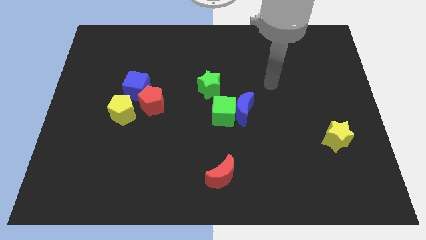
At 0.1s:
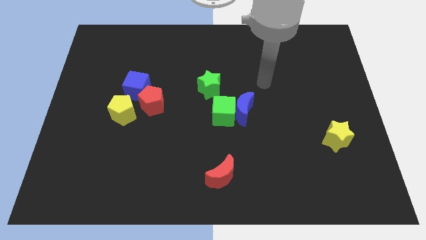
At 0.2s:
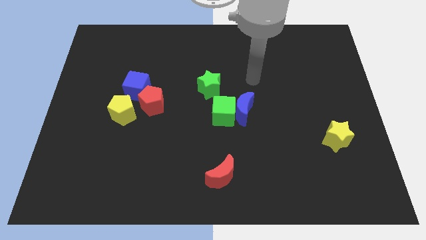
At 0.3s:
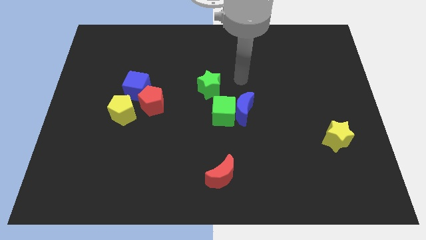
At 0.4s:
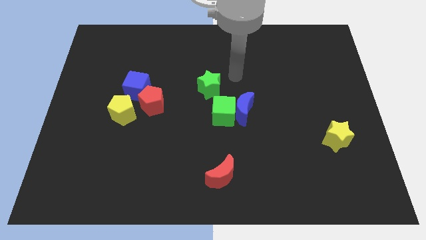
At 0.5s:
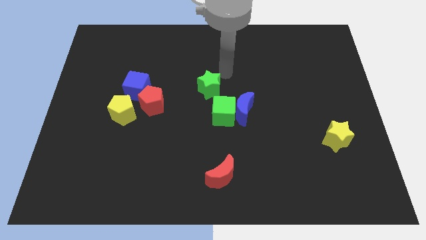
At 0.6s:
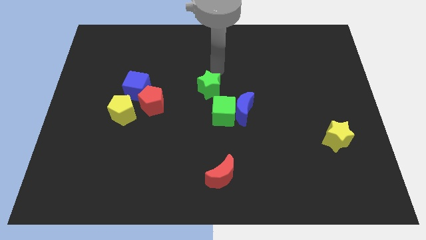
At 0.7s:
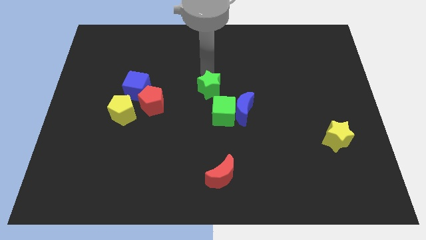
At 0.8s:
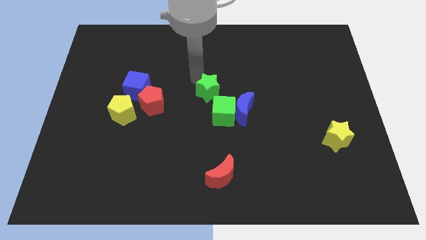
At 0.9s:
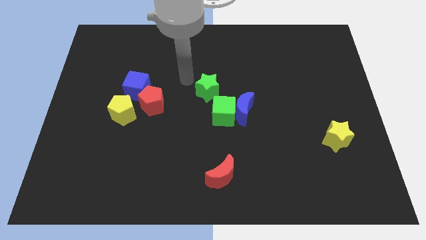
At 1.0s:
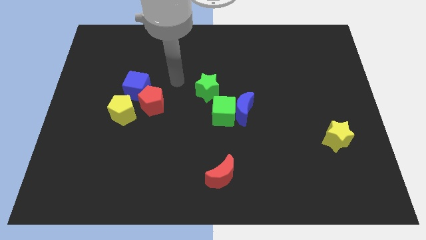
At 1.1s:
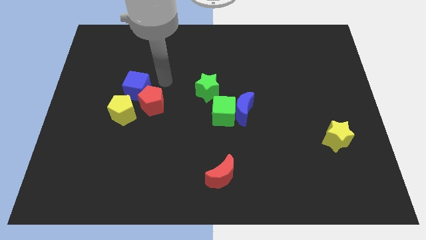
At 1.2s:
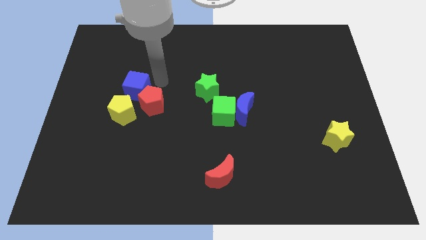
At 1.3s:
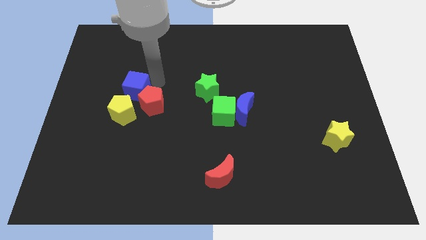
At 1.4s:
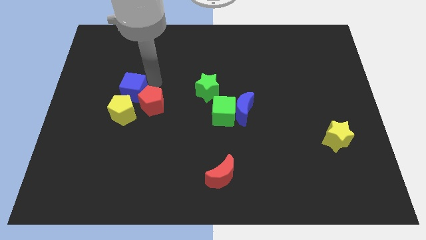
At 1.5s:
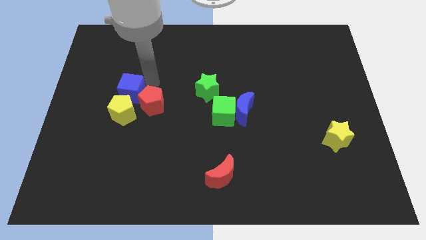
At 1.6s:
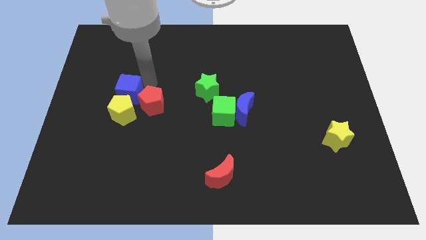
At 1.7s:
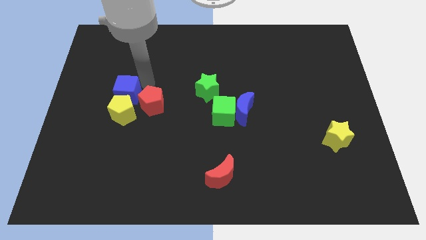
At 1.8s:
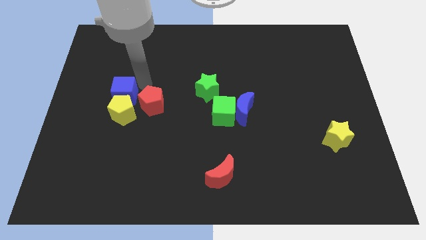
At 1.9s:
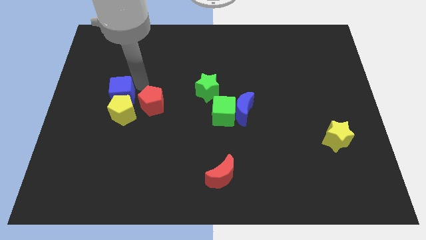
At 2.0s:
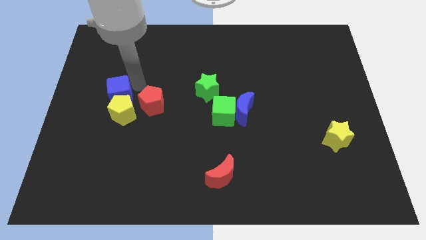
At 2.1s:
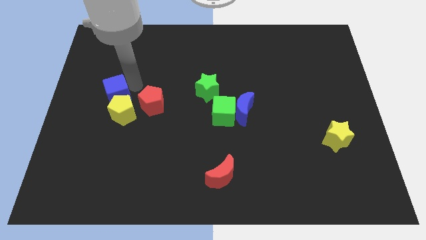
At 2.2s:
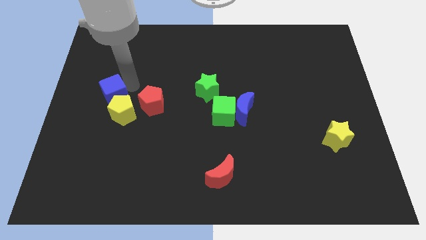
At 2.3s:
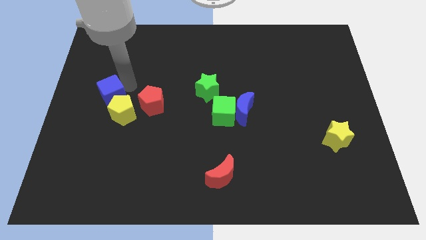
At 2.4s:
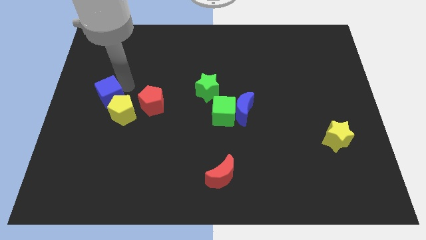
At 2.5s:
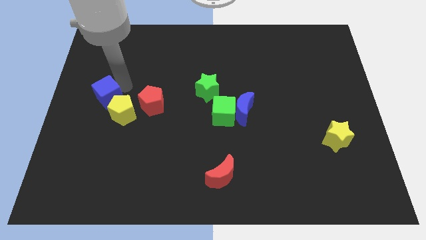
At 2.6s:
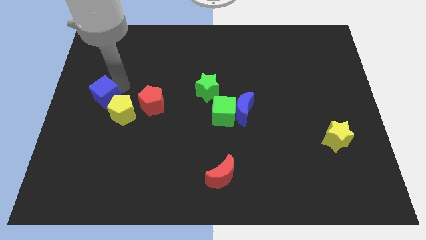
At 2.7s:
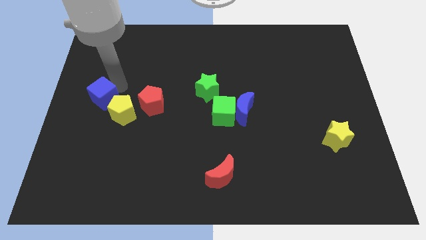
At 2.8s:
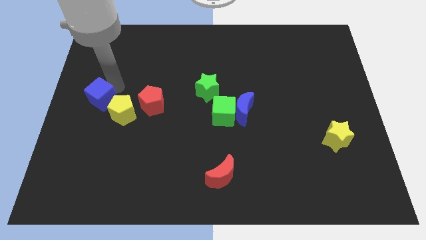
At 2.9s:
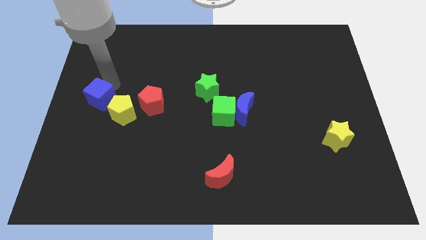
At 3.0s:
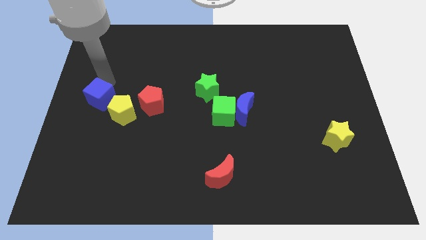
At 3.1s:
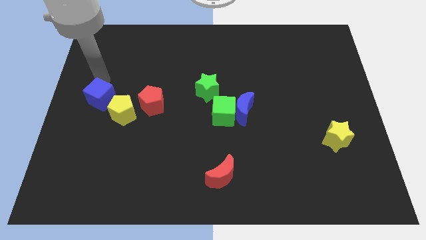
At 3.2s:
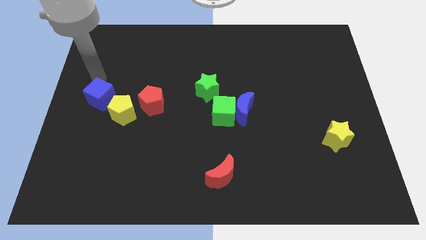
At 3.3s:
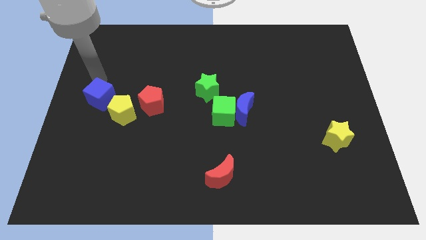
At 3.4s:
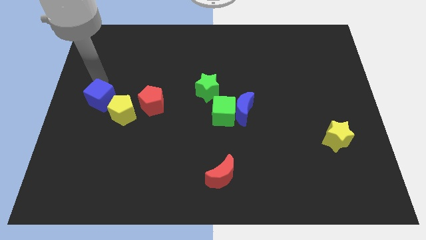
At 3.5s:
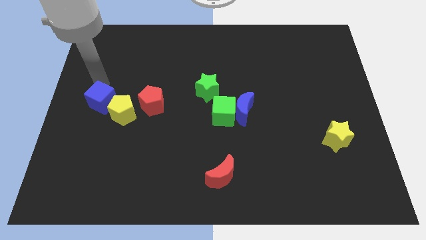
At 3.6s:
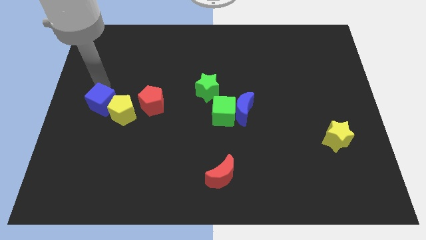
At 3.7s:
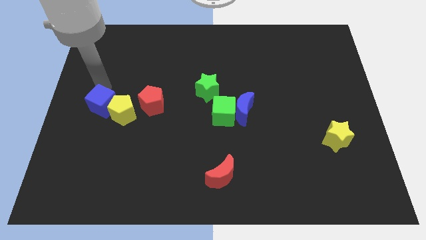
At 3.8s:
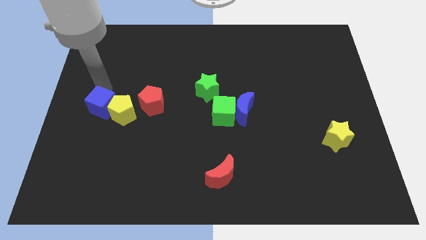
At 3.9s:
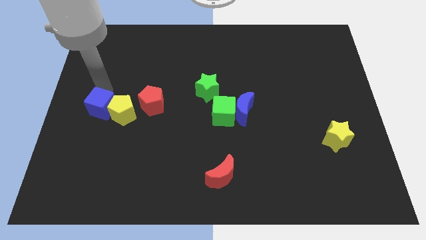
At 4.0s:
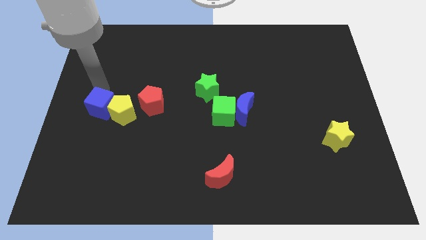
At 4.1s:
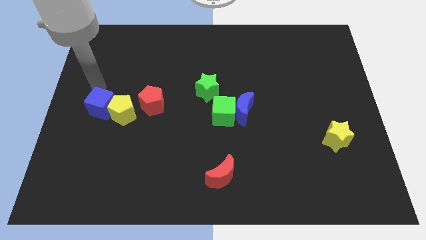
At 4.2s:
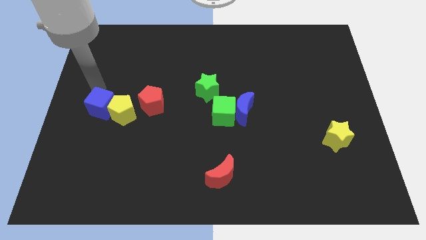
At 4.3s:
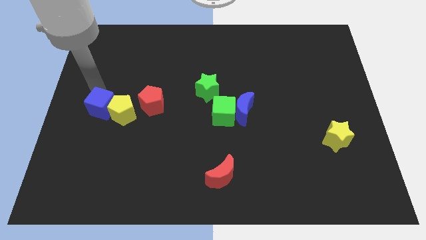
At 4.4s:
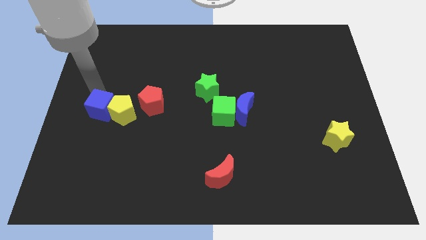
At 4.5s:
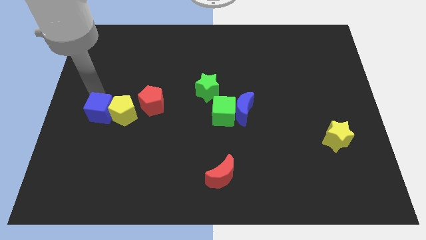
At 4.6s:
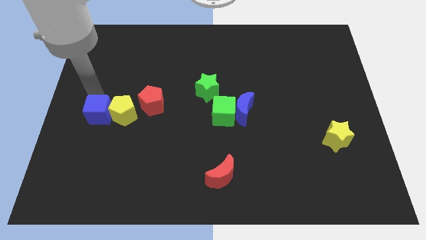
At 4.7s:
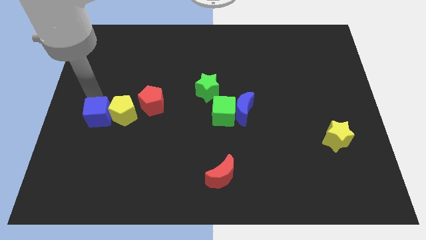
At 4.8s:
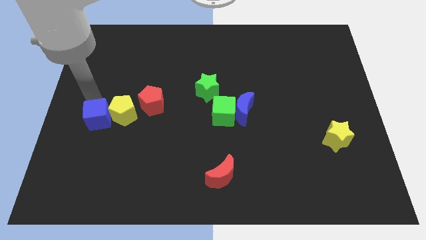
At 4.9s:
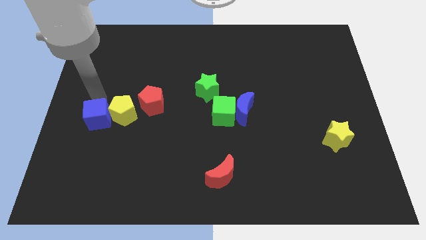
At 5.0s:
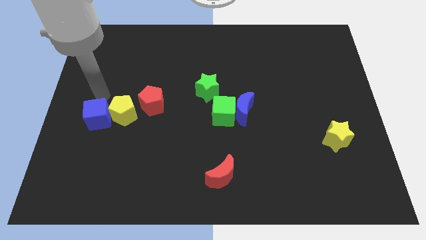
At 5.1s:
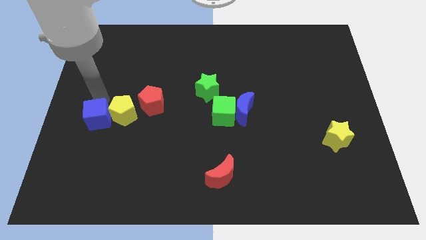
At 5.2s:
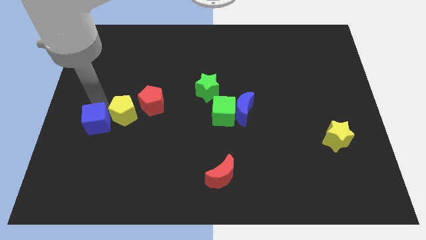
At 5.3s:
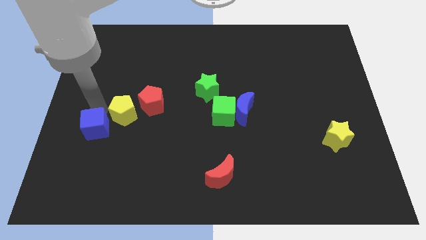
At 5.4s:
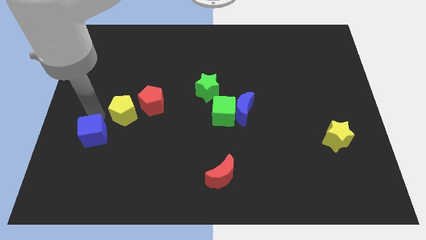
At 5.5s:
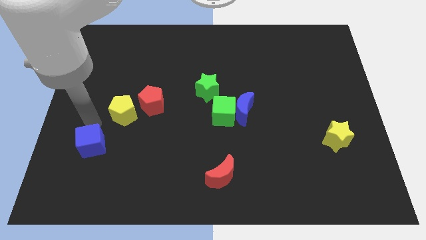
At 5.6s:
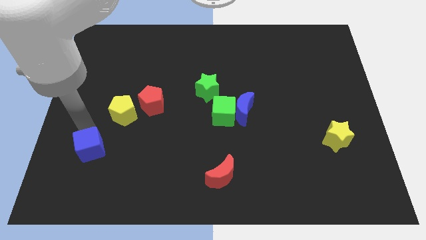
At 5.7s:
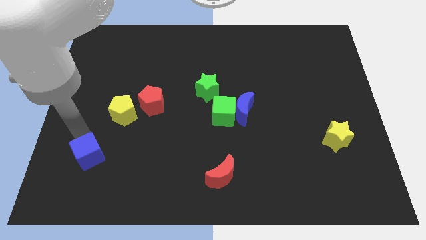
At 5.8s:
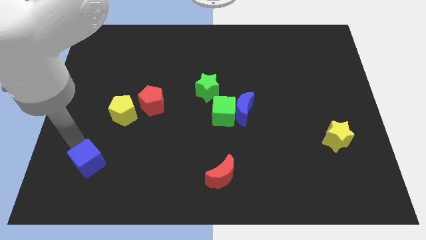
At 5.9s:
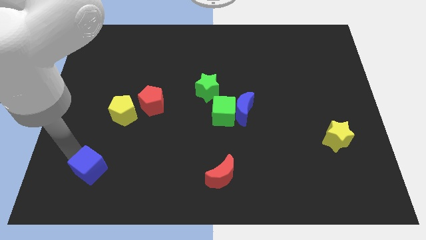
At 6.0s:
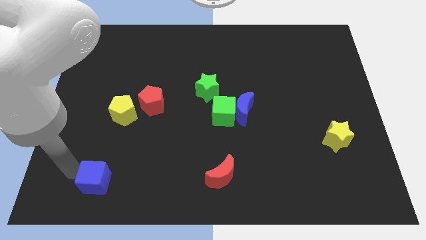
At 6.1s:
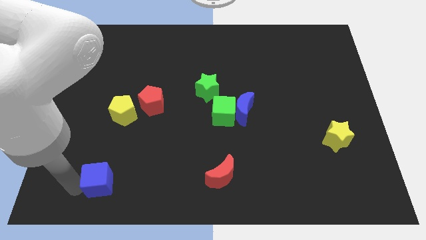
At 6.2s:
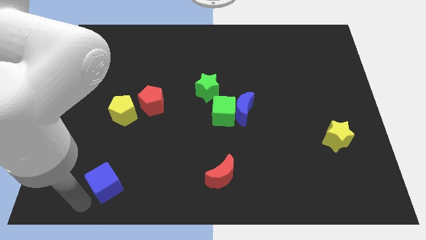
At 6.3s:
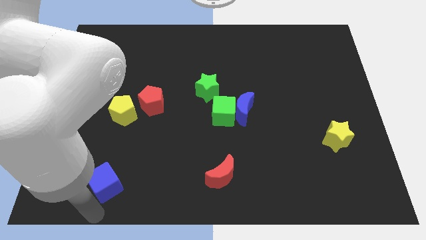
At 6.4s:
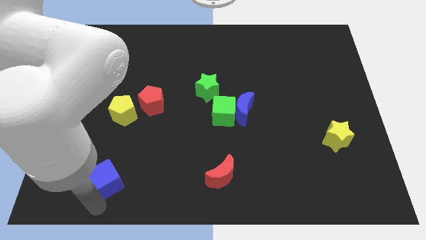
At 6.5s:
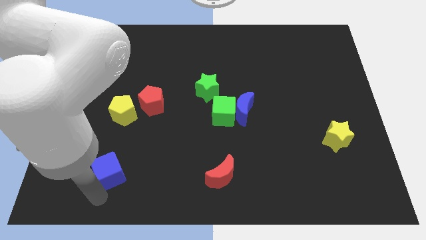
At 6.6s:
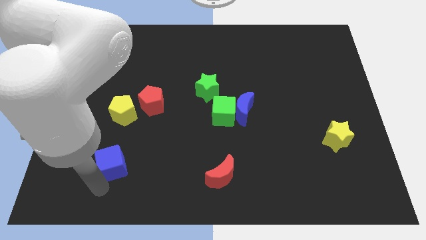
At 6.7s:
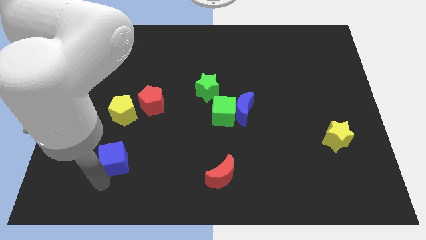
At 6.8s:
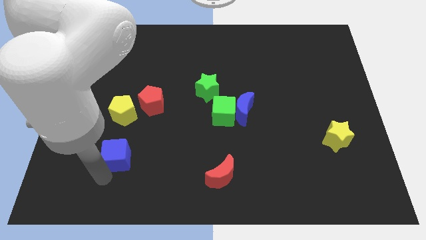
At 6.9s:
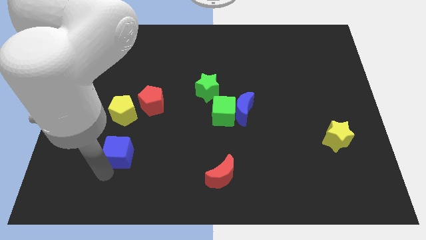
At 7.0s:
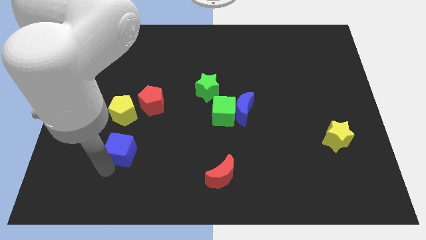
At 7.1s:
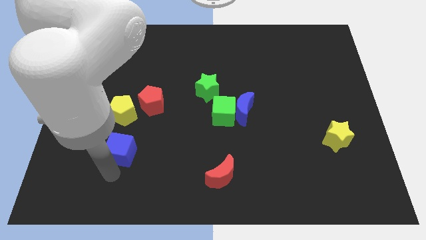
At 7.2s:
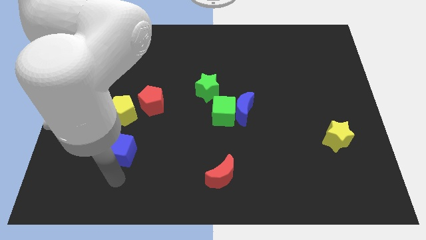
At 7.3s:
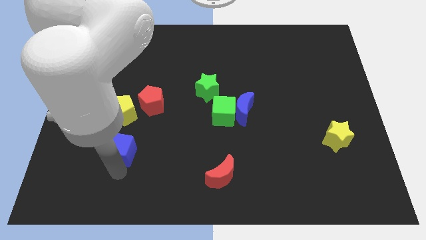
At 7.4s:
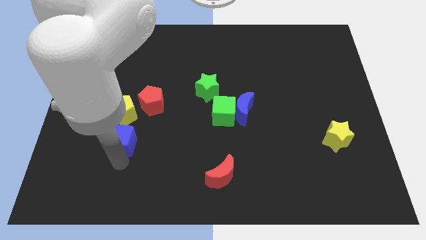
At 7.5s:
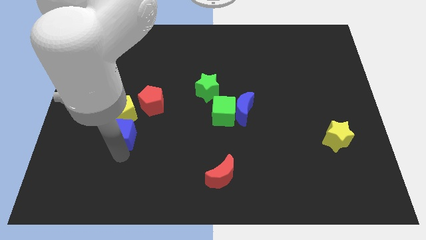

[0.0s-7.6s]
slide the blue cube diagonally down and to the left of the red pentagon
